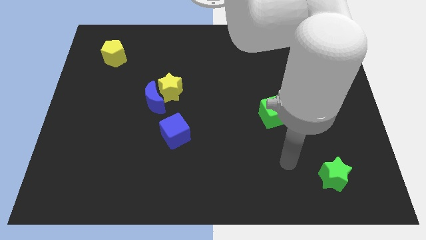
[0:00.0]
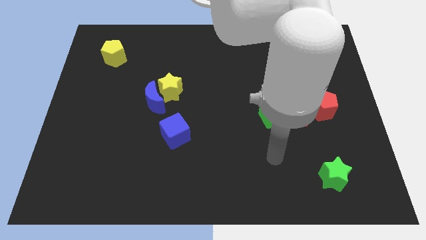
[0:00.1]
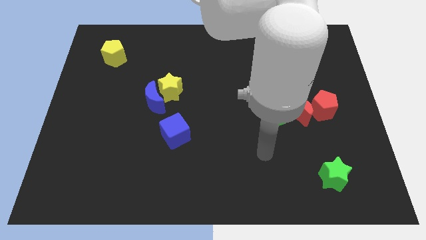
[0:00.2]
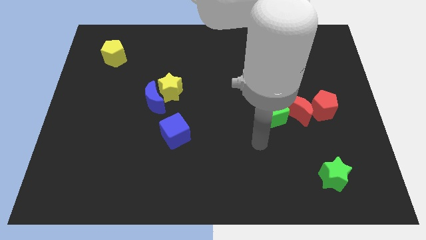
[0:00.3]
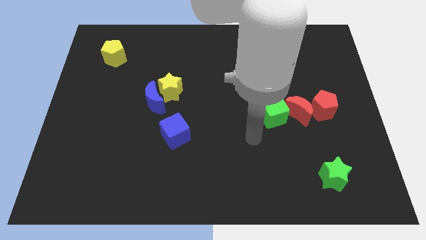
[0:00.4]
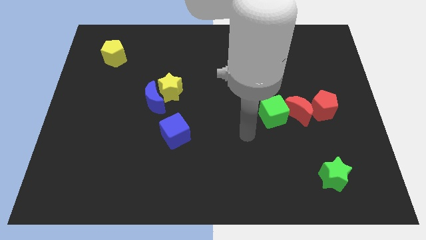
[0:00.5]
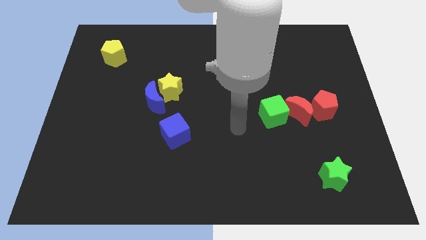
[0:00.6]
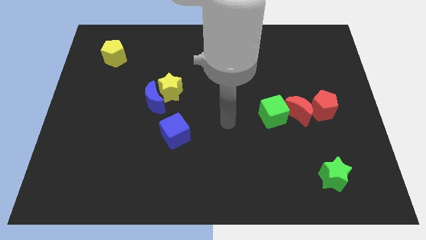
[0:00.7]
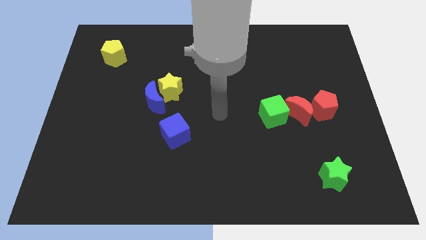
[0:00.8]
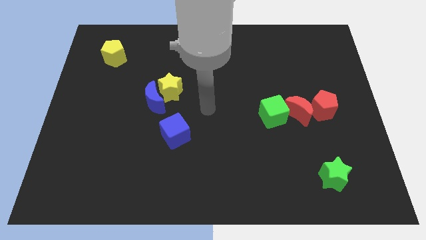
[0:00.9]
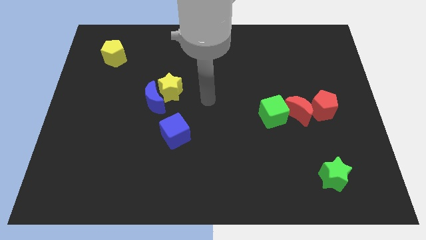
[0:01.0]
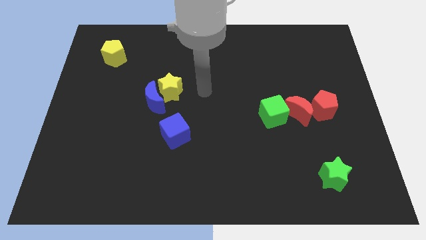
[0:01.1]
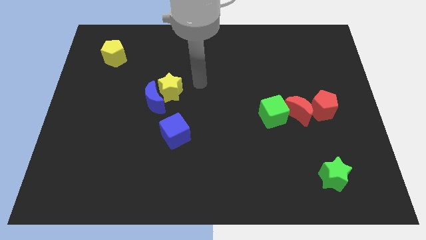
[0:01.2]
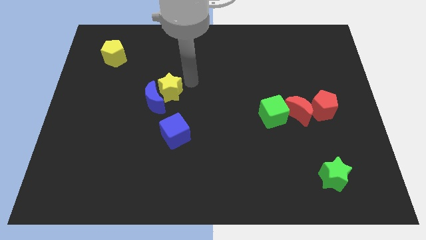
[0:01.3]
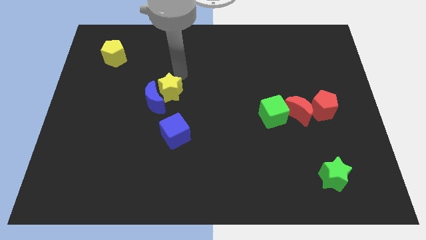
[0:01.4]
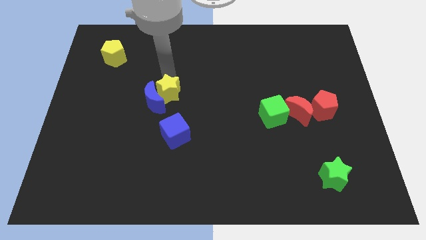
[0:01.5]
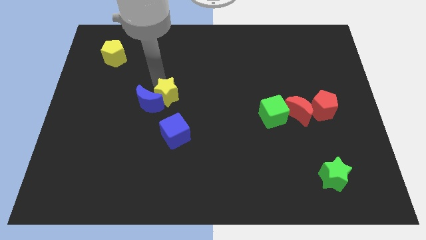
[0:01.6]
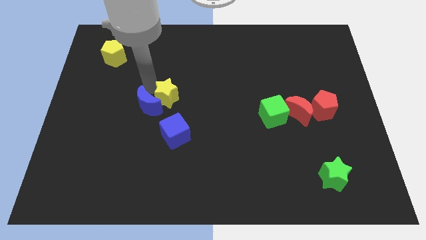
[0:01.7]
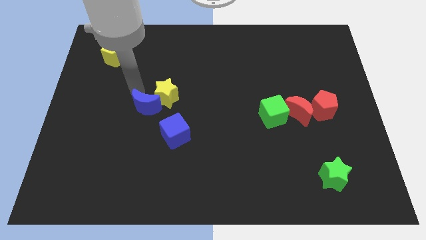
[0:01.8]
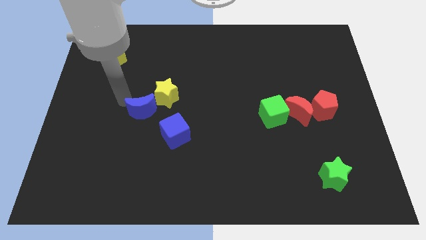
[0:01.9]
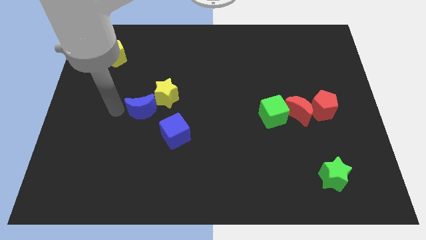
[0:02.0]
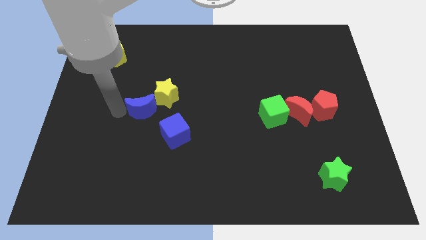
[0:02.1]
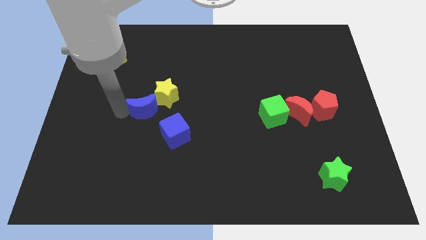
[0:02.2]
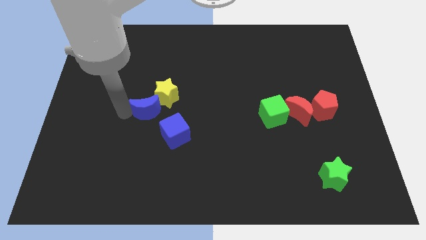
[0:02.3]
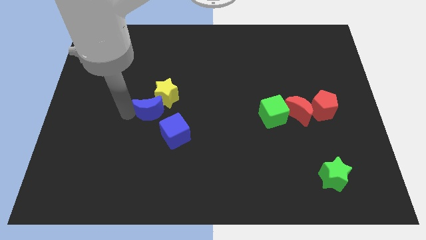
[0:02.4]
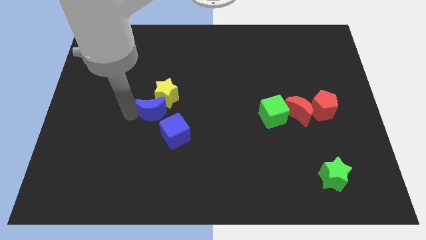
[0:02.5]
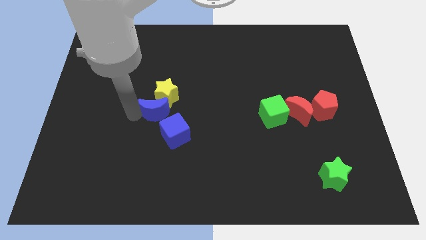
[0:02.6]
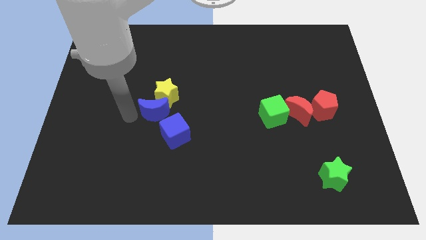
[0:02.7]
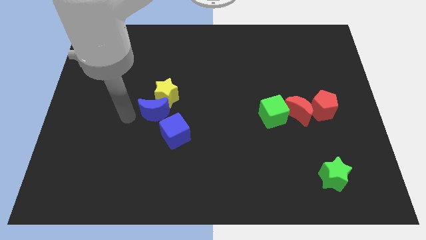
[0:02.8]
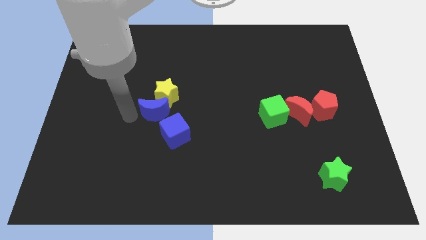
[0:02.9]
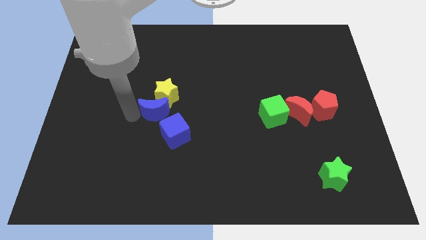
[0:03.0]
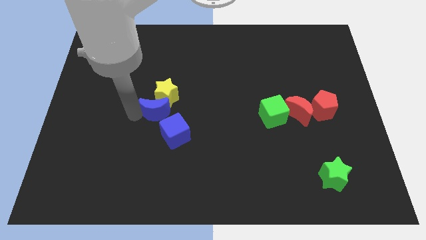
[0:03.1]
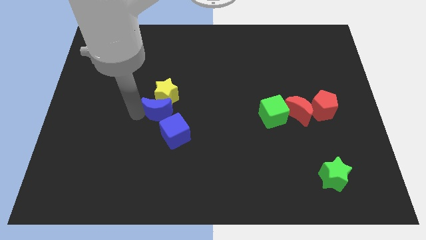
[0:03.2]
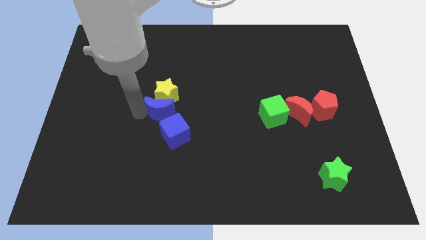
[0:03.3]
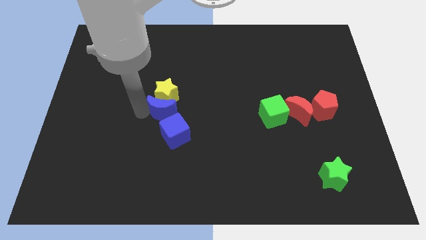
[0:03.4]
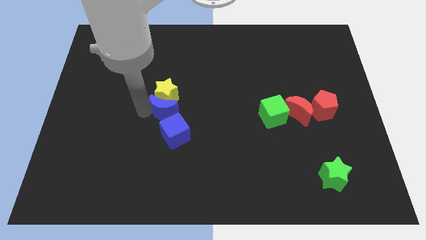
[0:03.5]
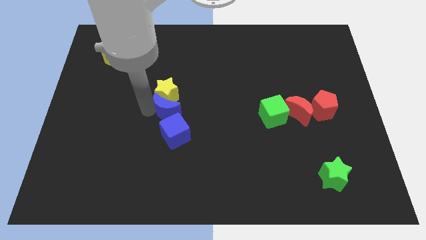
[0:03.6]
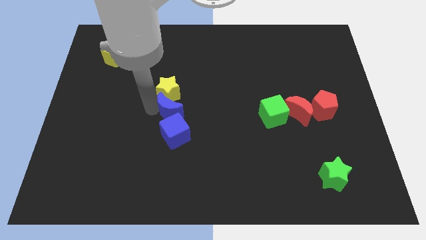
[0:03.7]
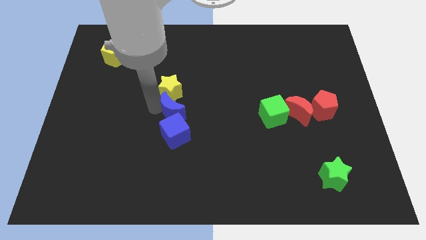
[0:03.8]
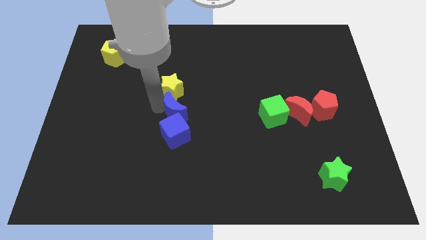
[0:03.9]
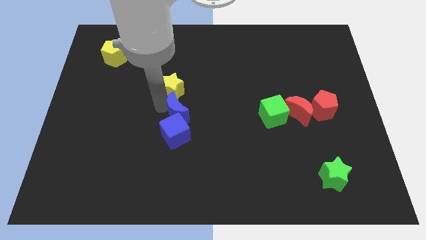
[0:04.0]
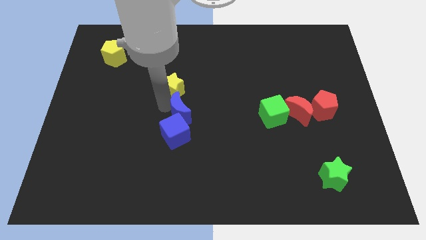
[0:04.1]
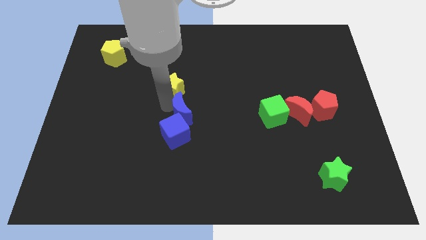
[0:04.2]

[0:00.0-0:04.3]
move the blue moon slightly downwards and then right

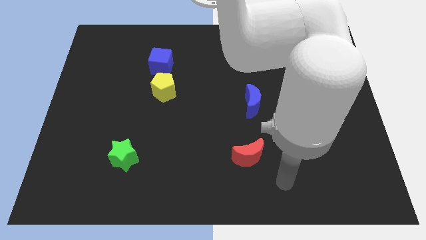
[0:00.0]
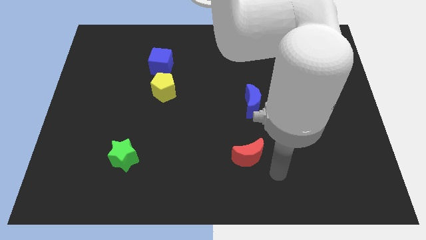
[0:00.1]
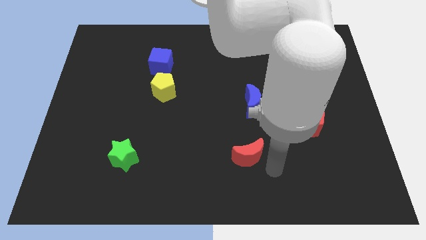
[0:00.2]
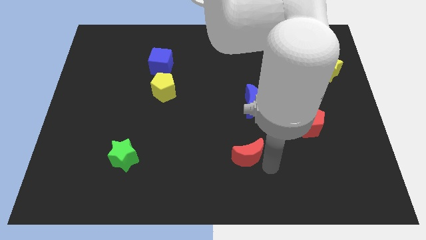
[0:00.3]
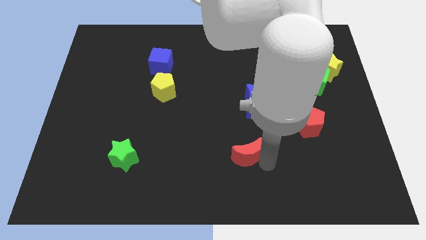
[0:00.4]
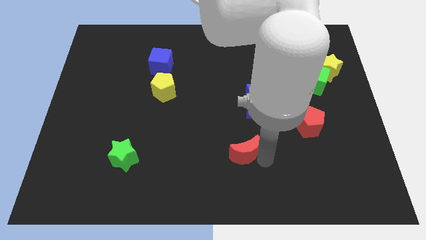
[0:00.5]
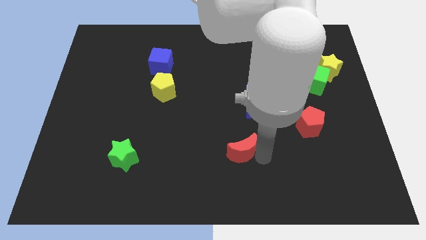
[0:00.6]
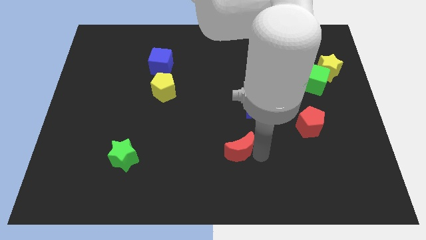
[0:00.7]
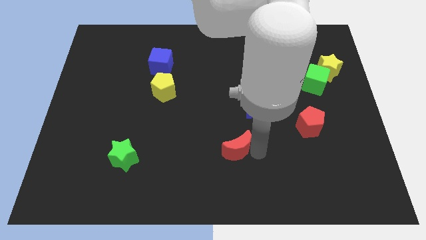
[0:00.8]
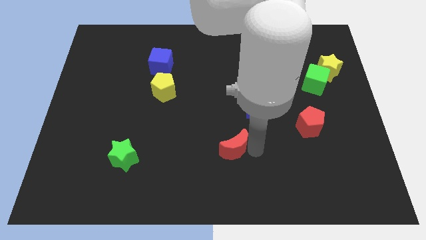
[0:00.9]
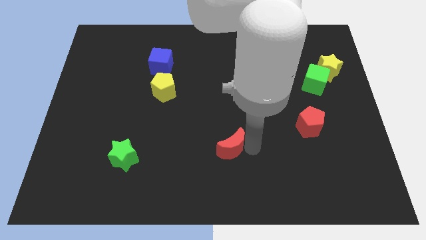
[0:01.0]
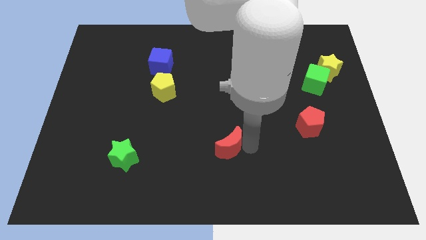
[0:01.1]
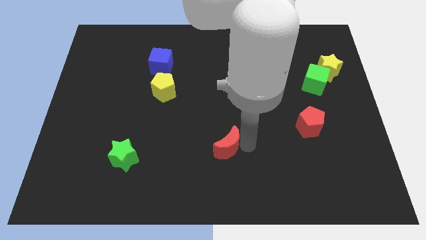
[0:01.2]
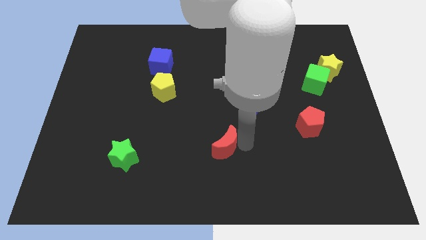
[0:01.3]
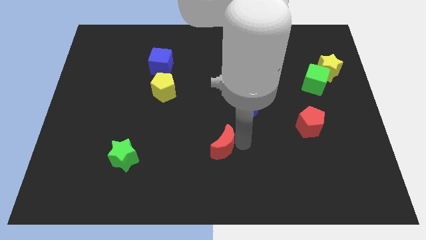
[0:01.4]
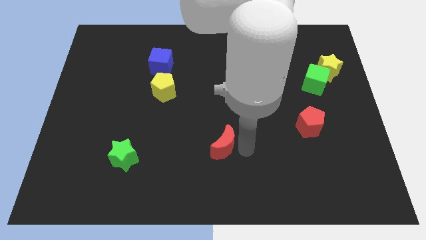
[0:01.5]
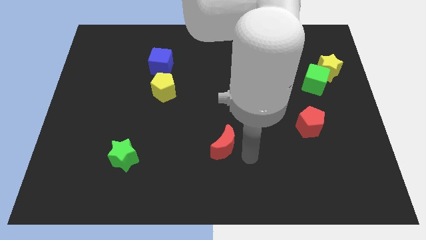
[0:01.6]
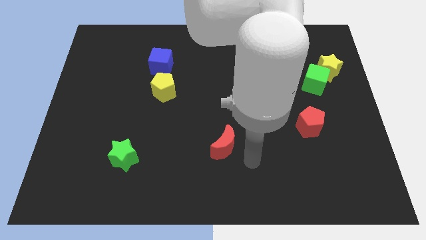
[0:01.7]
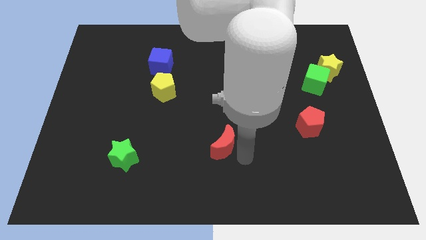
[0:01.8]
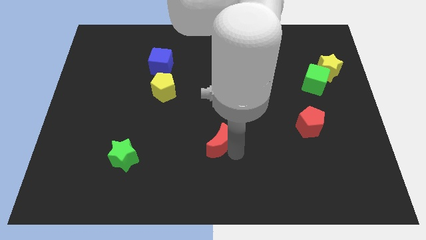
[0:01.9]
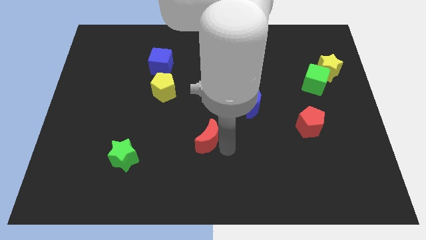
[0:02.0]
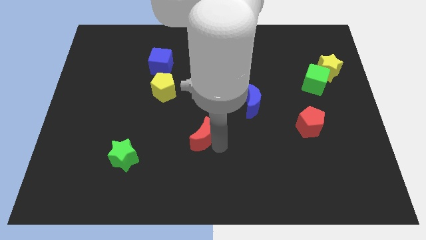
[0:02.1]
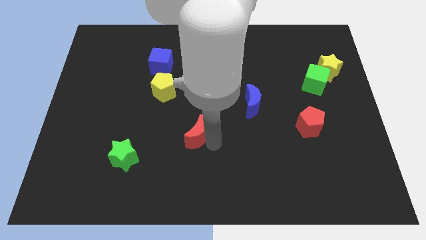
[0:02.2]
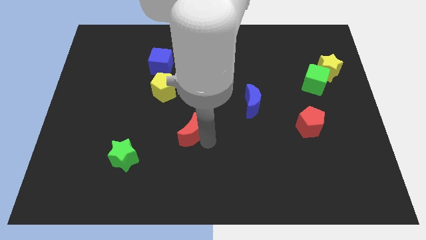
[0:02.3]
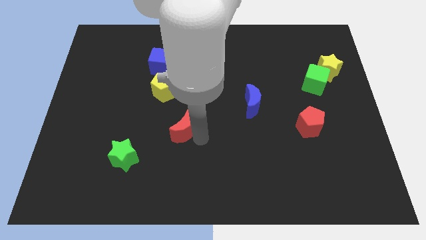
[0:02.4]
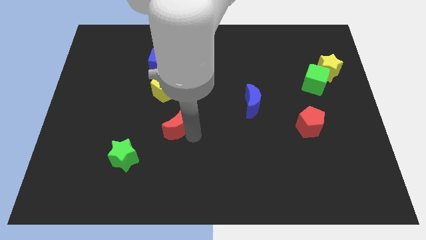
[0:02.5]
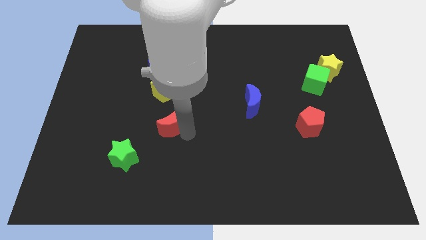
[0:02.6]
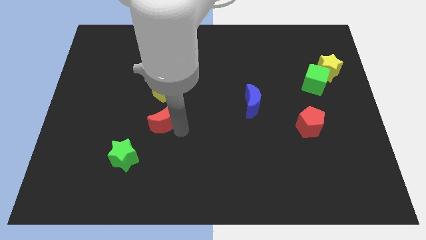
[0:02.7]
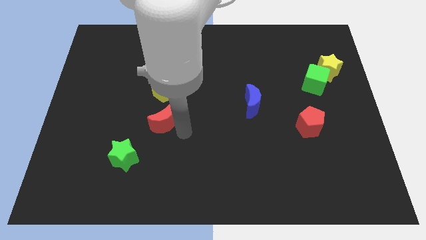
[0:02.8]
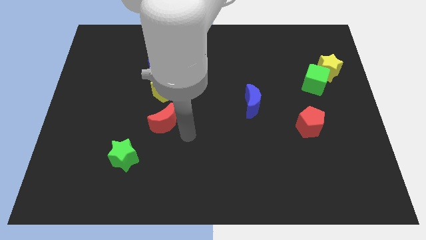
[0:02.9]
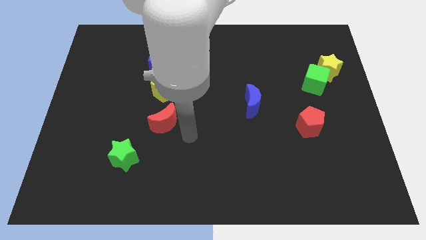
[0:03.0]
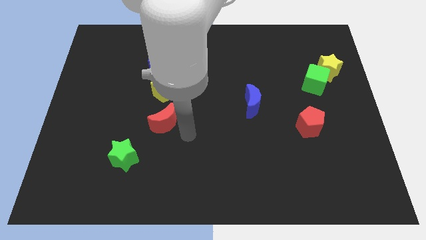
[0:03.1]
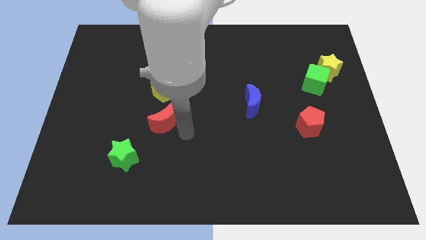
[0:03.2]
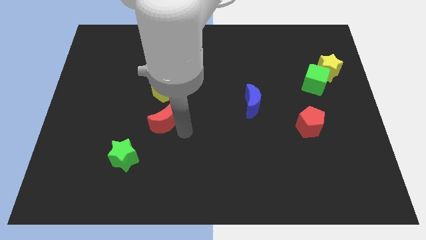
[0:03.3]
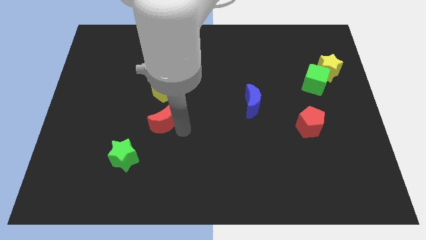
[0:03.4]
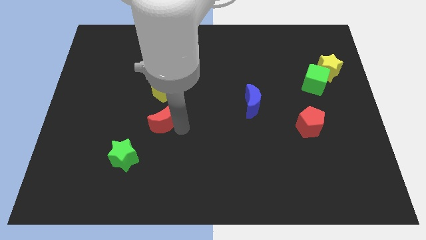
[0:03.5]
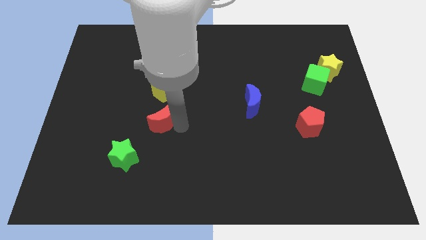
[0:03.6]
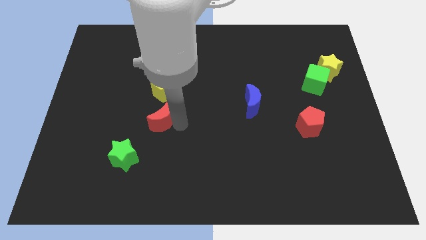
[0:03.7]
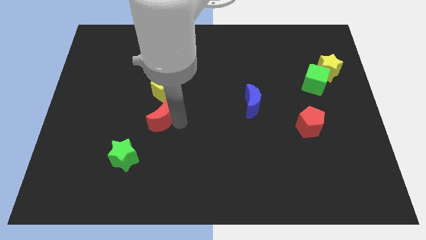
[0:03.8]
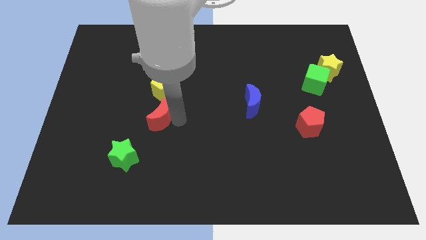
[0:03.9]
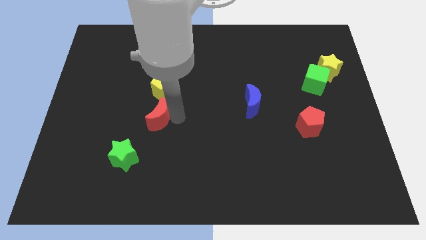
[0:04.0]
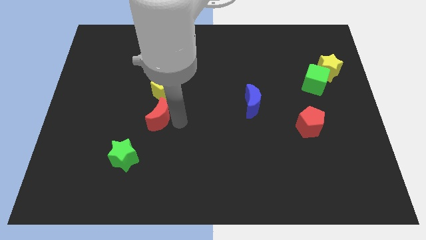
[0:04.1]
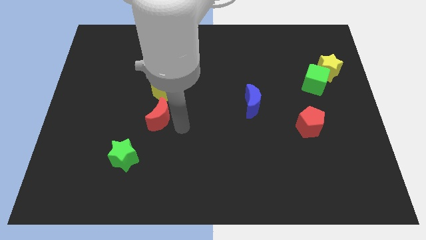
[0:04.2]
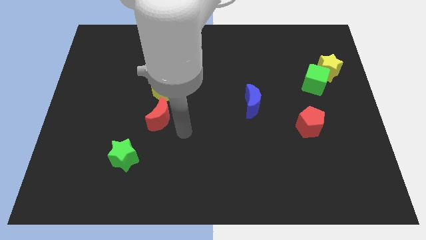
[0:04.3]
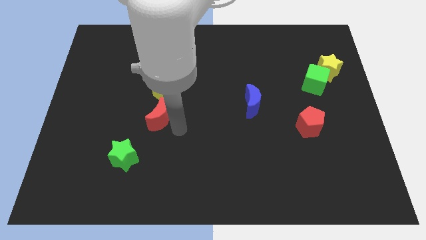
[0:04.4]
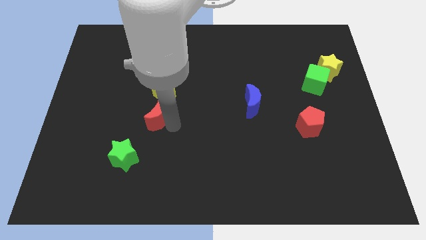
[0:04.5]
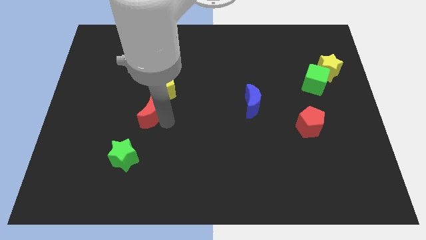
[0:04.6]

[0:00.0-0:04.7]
push the red moon upwards and left diagonally
